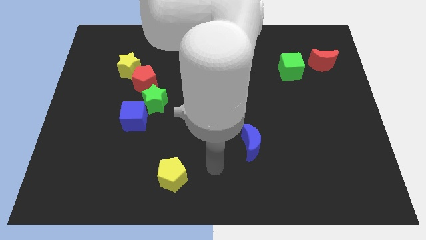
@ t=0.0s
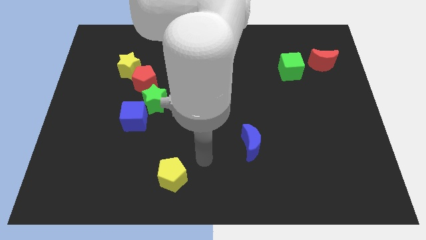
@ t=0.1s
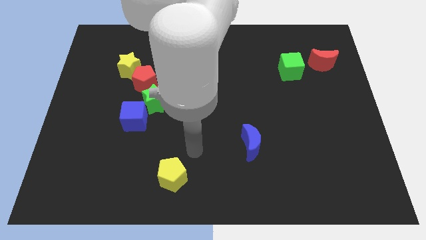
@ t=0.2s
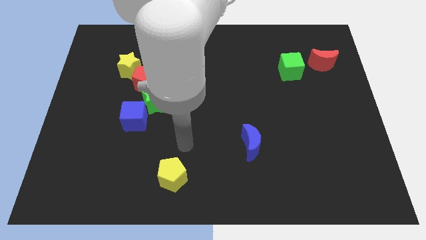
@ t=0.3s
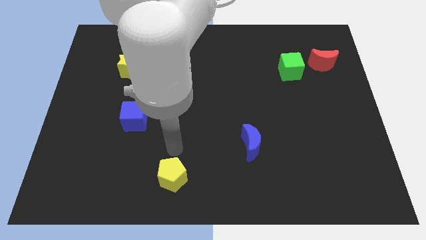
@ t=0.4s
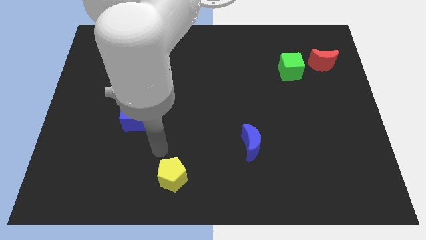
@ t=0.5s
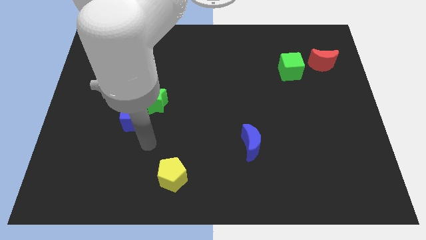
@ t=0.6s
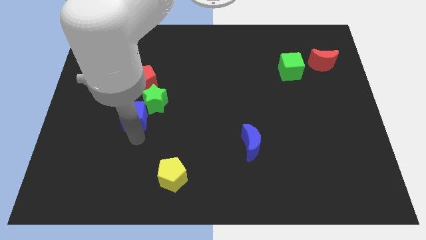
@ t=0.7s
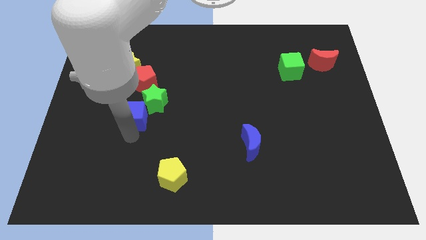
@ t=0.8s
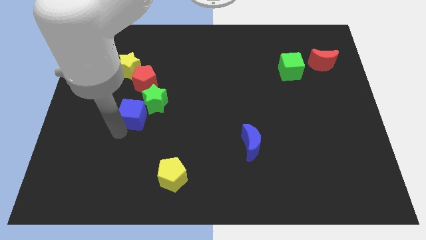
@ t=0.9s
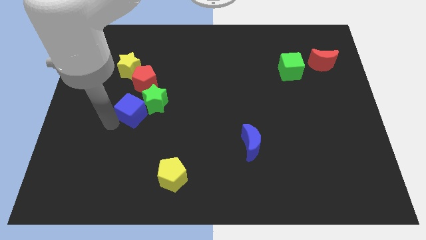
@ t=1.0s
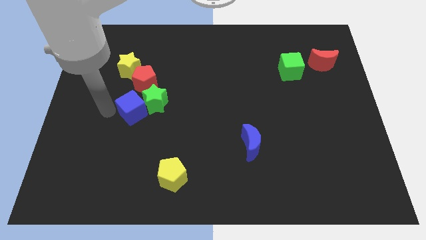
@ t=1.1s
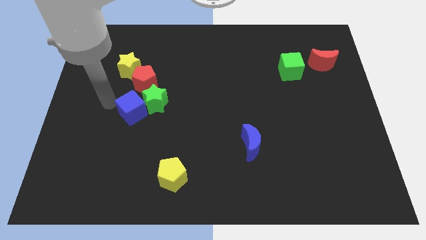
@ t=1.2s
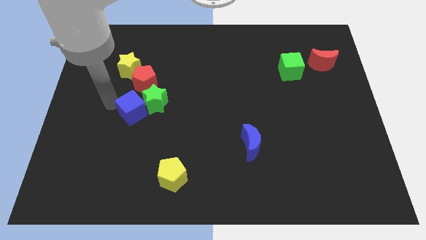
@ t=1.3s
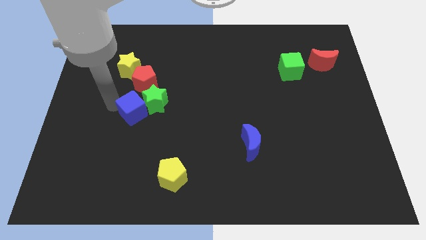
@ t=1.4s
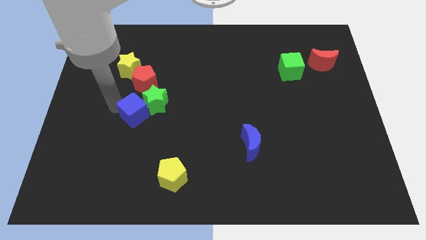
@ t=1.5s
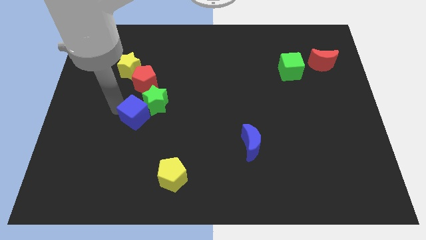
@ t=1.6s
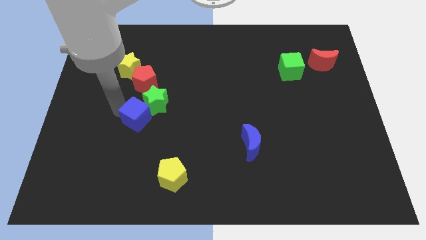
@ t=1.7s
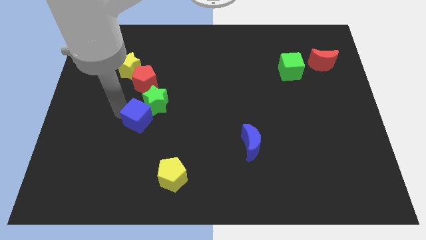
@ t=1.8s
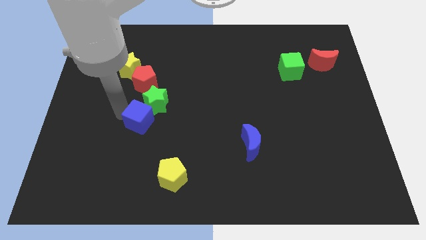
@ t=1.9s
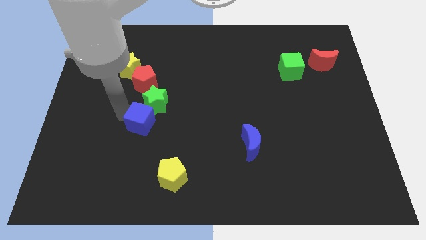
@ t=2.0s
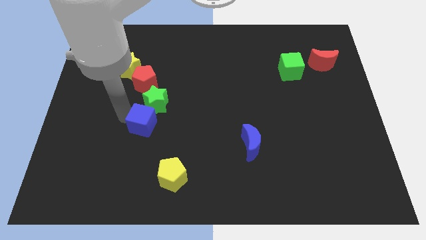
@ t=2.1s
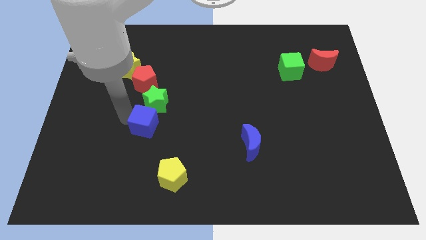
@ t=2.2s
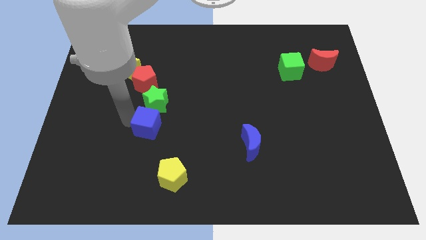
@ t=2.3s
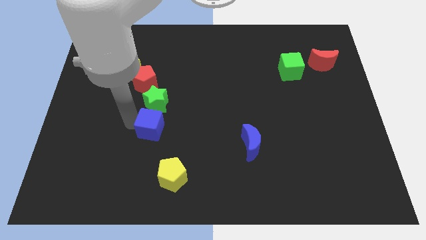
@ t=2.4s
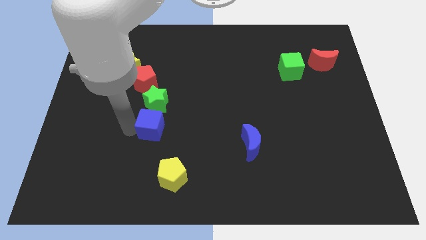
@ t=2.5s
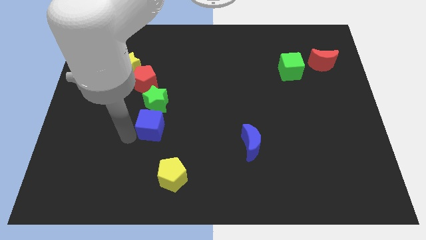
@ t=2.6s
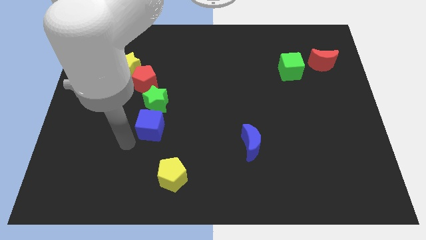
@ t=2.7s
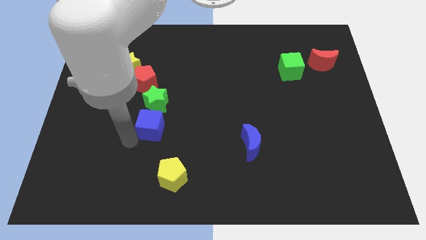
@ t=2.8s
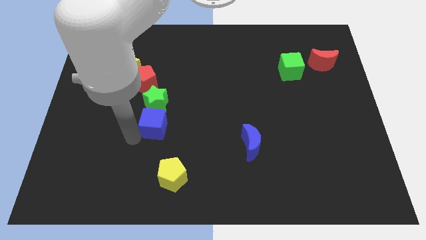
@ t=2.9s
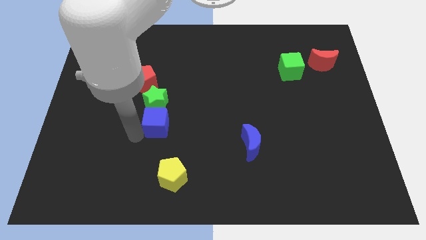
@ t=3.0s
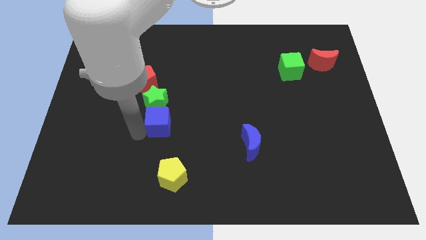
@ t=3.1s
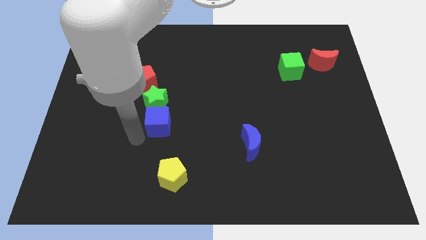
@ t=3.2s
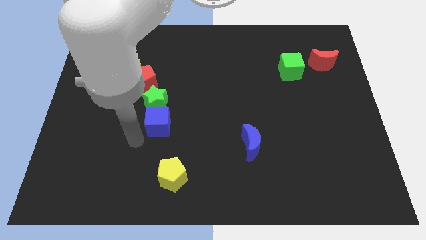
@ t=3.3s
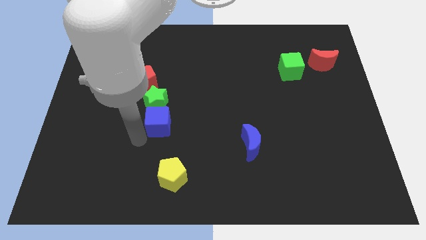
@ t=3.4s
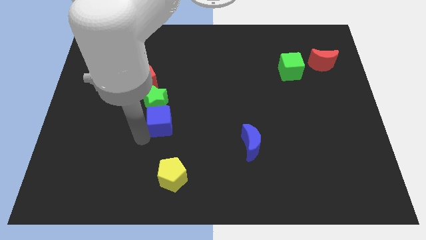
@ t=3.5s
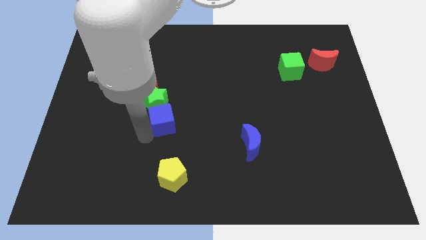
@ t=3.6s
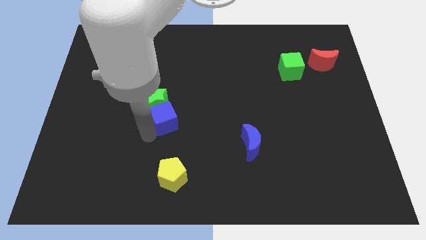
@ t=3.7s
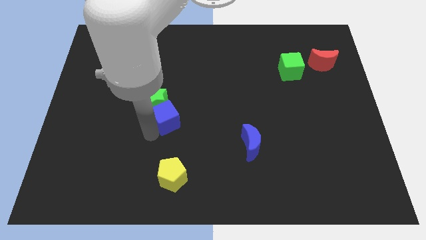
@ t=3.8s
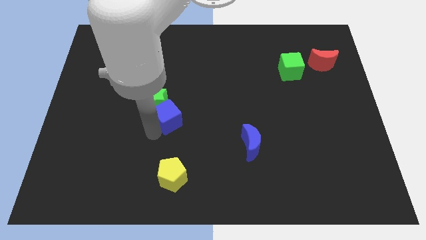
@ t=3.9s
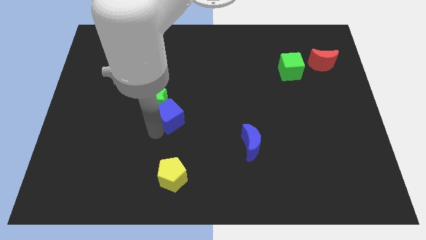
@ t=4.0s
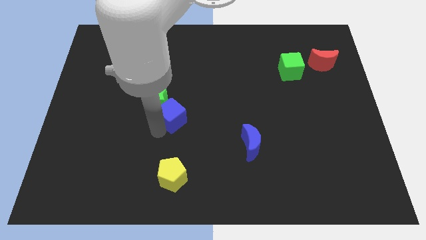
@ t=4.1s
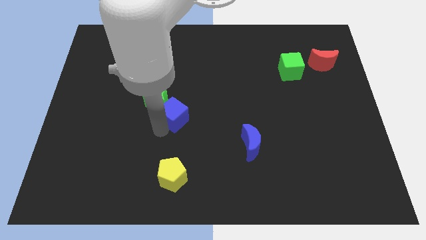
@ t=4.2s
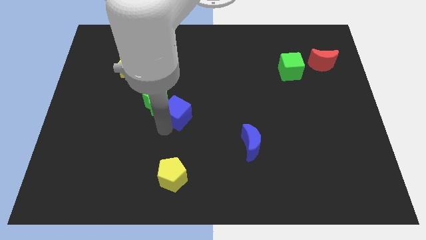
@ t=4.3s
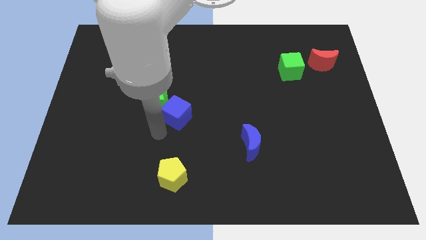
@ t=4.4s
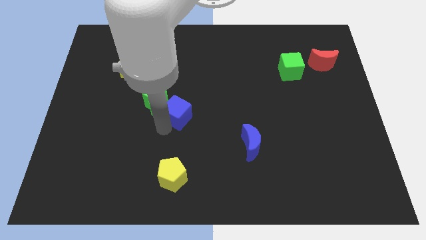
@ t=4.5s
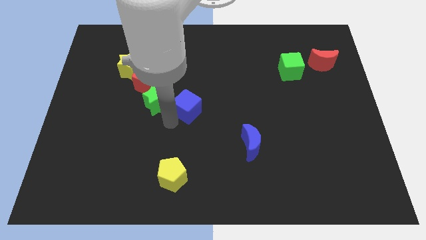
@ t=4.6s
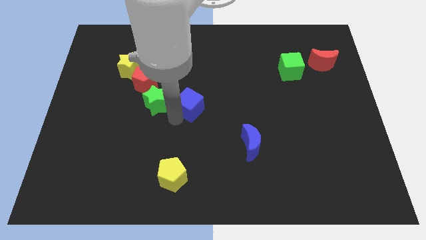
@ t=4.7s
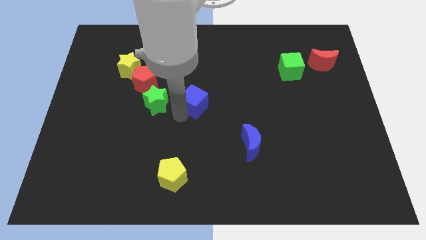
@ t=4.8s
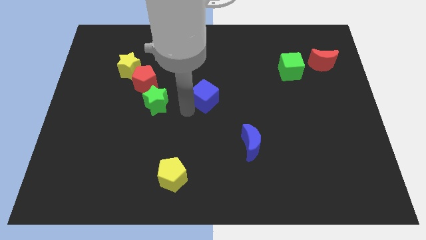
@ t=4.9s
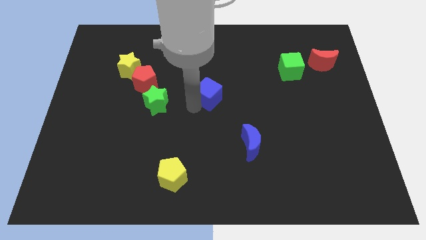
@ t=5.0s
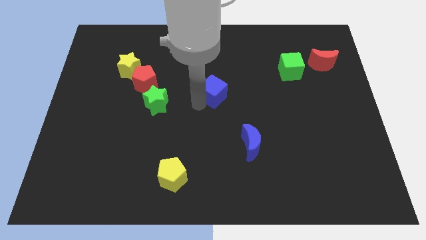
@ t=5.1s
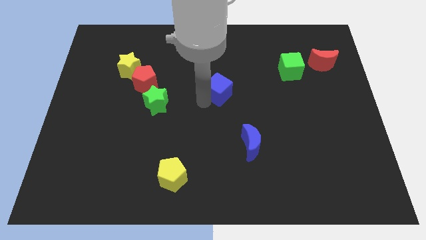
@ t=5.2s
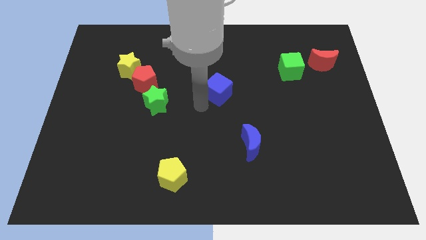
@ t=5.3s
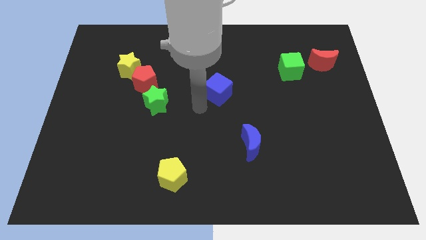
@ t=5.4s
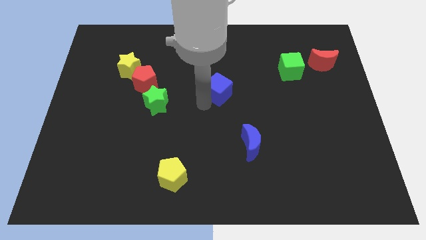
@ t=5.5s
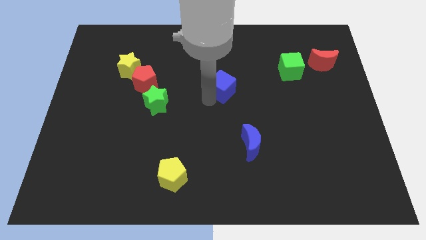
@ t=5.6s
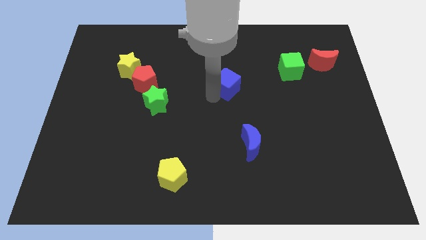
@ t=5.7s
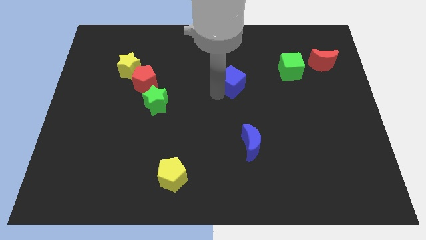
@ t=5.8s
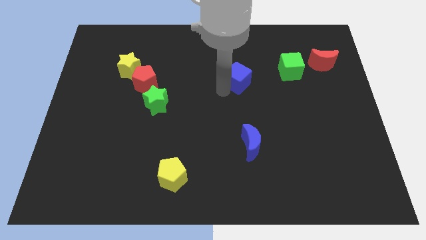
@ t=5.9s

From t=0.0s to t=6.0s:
move the blue cube left of the green cube

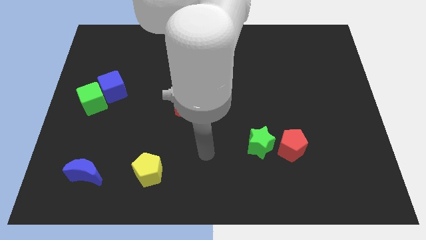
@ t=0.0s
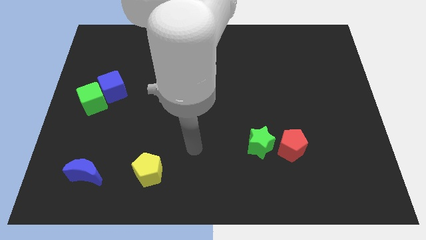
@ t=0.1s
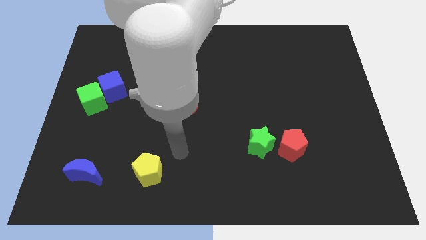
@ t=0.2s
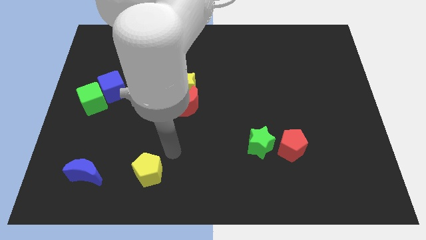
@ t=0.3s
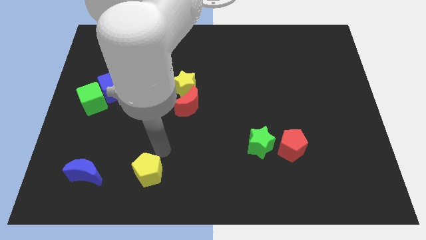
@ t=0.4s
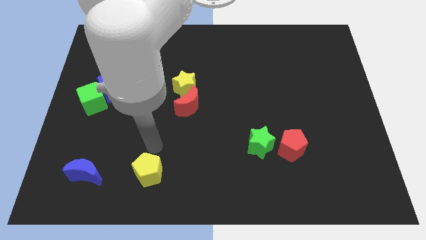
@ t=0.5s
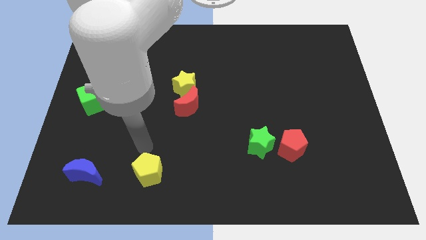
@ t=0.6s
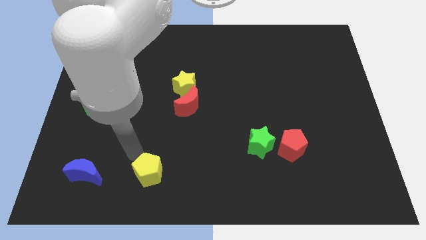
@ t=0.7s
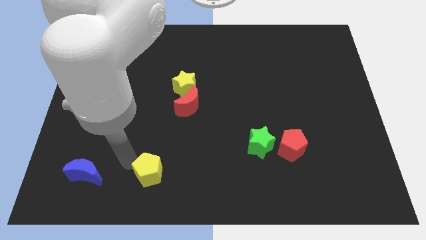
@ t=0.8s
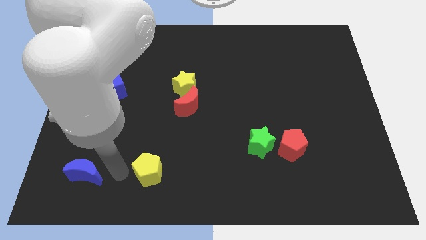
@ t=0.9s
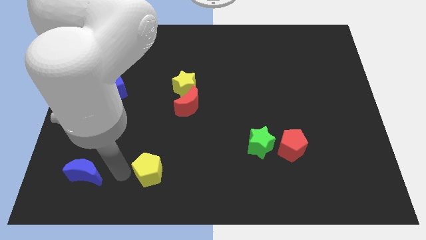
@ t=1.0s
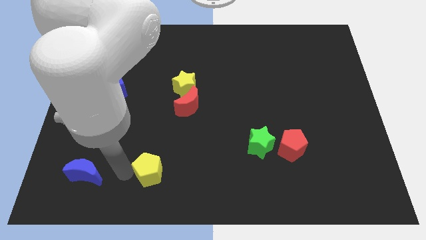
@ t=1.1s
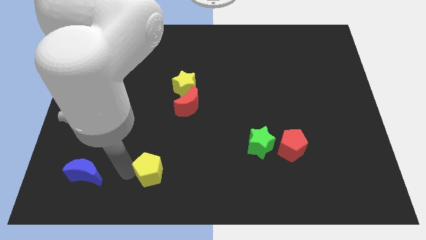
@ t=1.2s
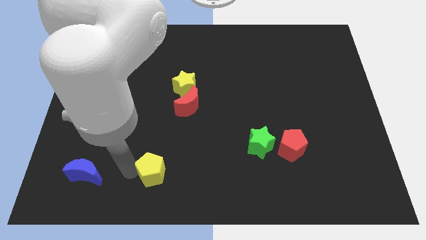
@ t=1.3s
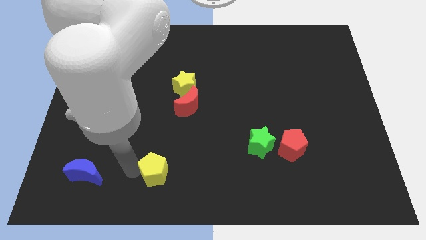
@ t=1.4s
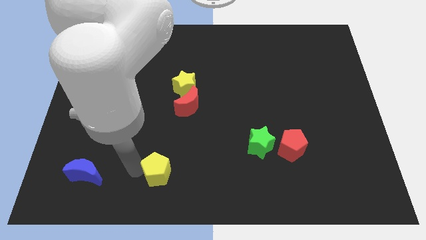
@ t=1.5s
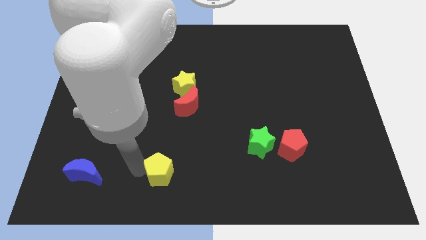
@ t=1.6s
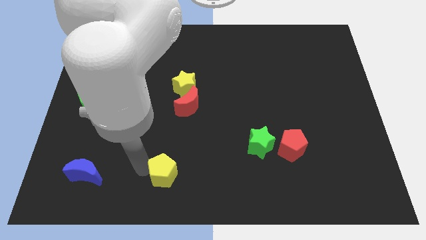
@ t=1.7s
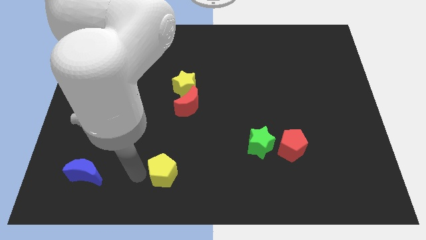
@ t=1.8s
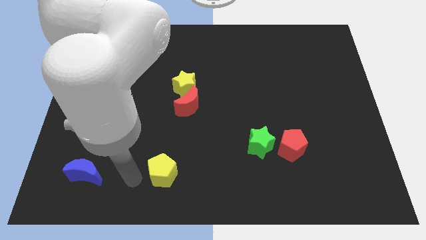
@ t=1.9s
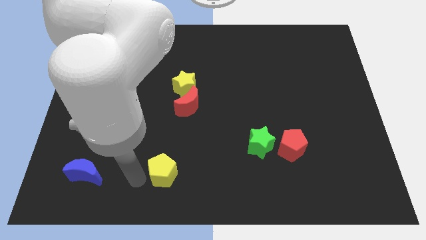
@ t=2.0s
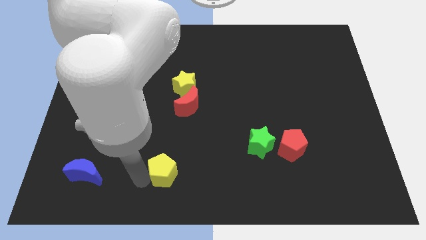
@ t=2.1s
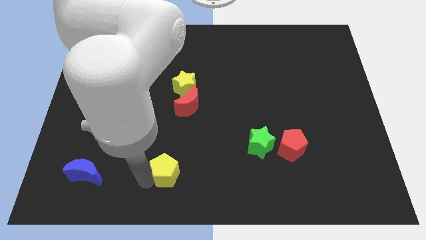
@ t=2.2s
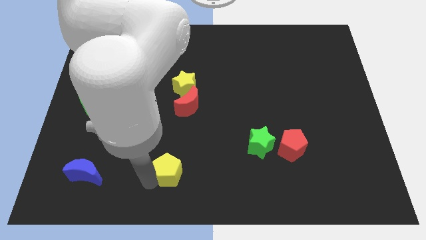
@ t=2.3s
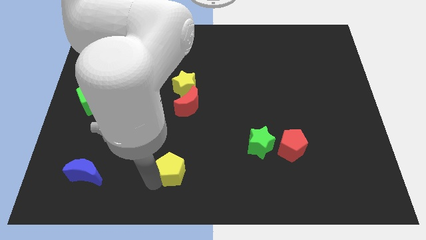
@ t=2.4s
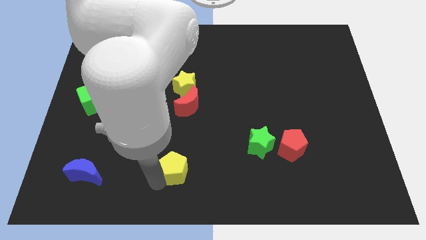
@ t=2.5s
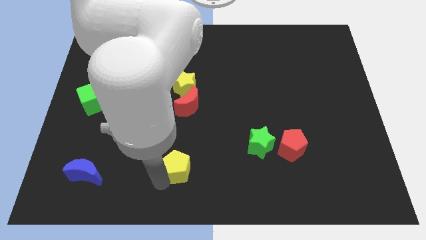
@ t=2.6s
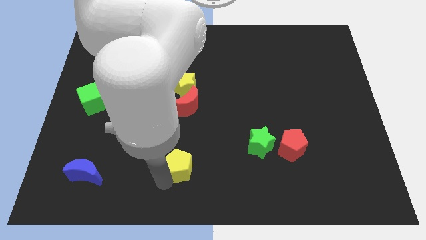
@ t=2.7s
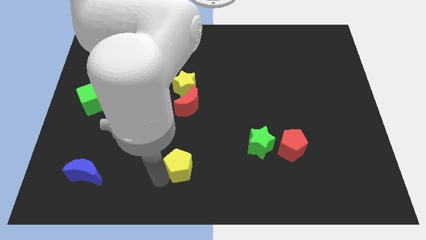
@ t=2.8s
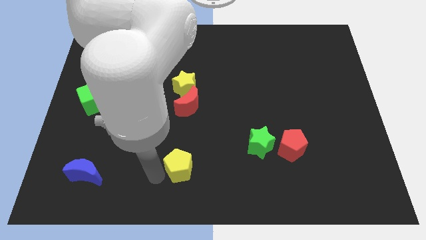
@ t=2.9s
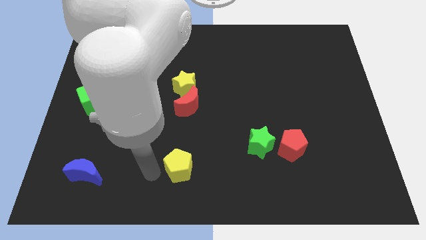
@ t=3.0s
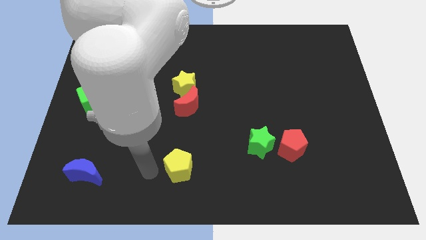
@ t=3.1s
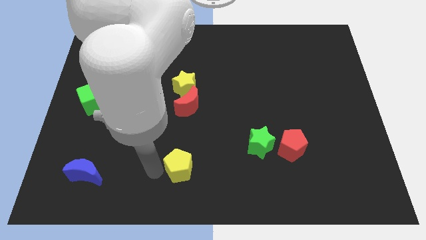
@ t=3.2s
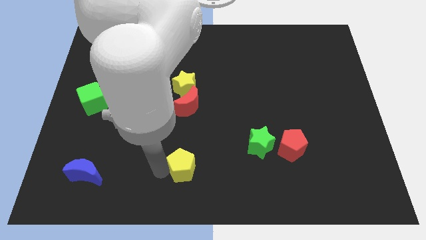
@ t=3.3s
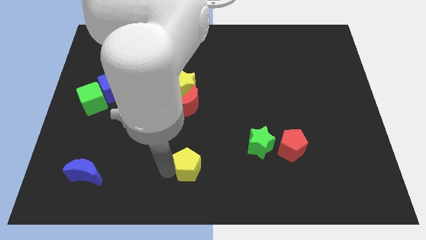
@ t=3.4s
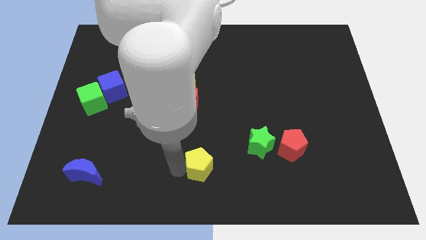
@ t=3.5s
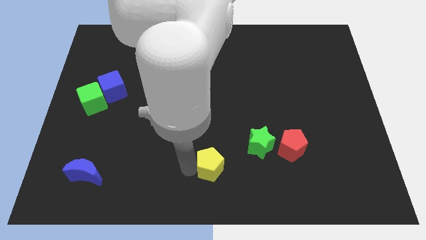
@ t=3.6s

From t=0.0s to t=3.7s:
move the yellow pentagon to the bottom left side of the green star
